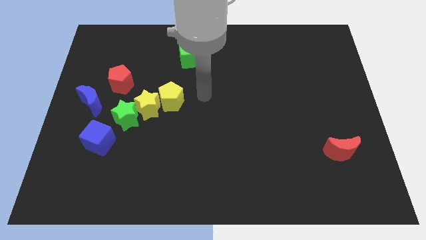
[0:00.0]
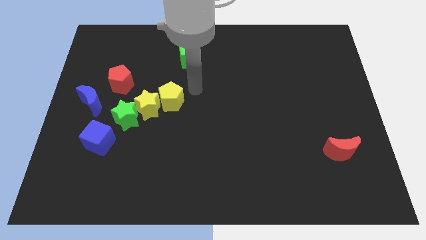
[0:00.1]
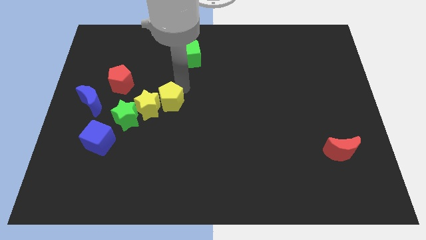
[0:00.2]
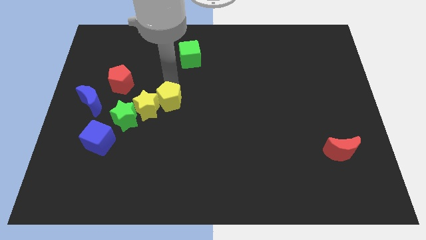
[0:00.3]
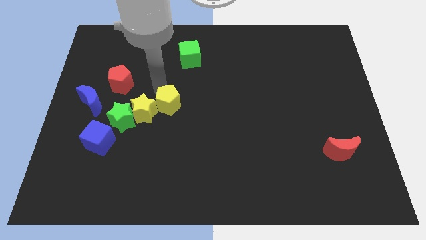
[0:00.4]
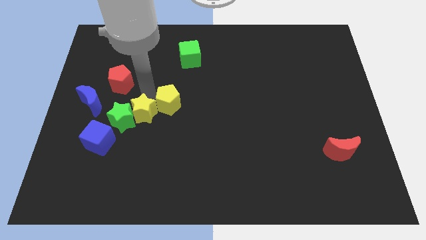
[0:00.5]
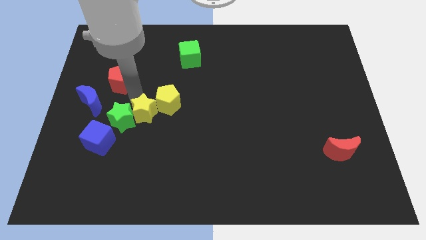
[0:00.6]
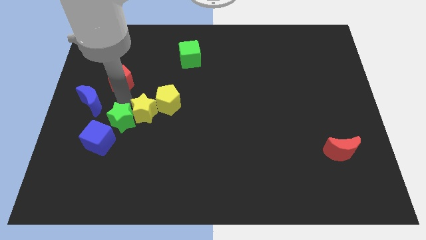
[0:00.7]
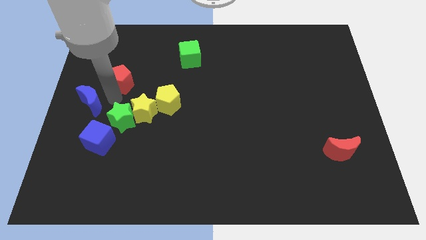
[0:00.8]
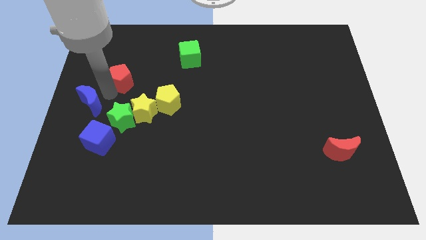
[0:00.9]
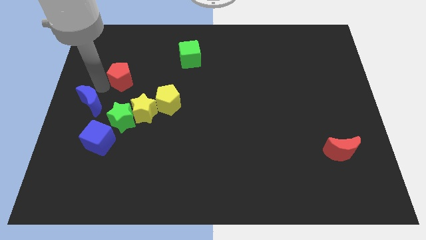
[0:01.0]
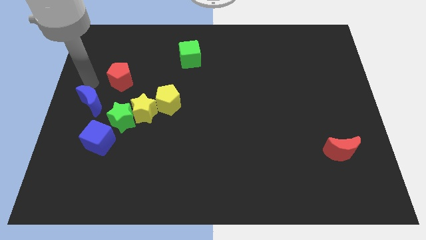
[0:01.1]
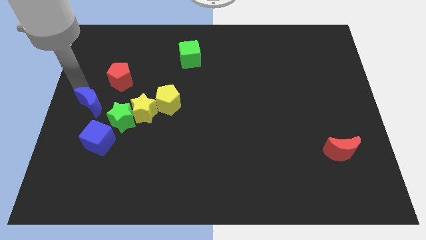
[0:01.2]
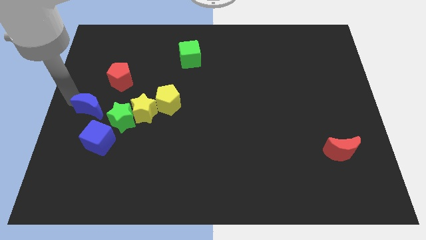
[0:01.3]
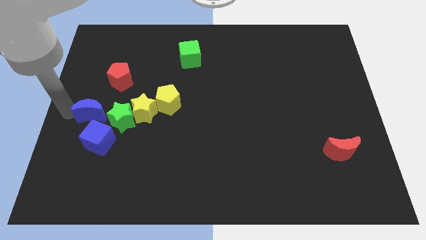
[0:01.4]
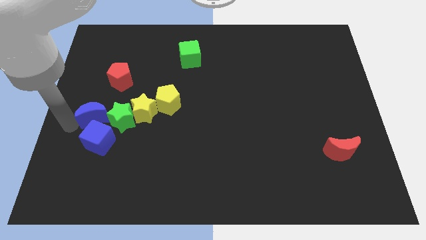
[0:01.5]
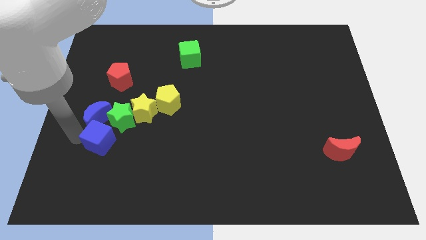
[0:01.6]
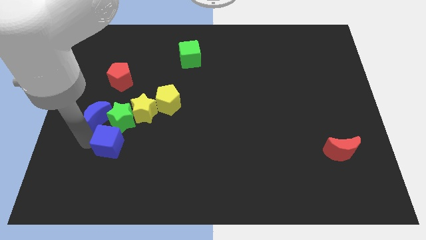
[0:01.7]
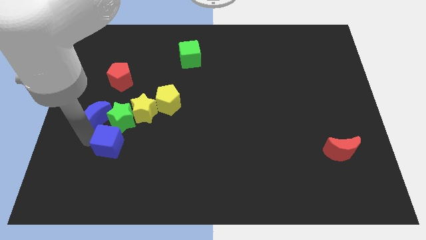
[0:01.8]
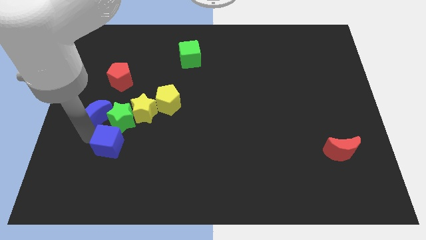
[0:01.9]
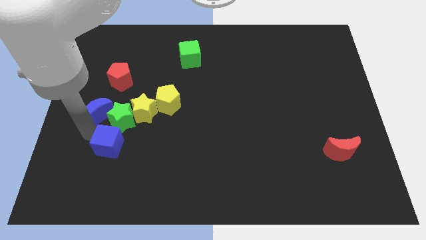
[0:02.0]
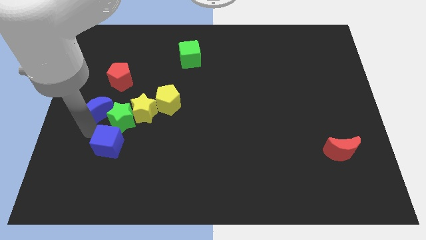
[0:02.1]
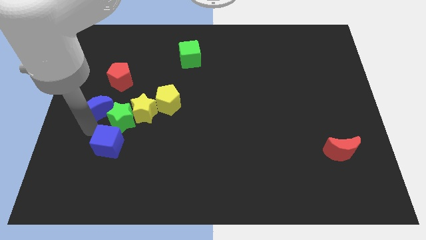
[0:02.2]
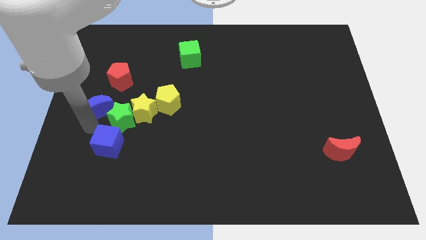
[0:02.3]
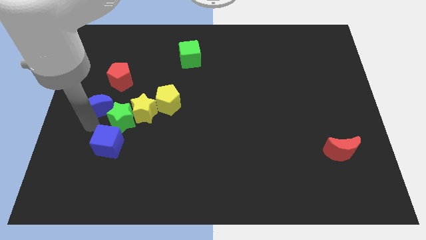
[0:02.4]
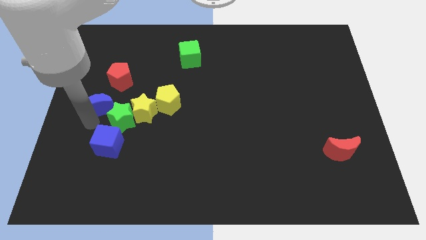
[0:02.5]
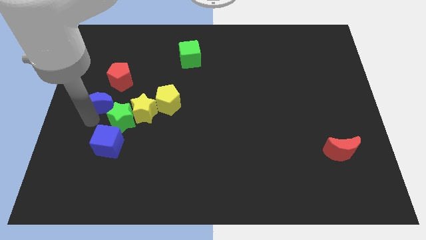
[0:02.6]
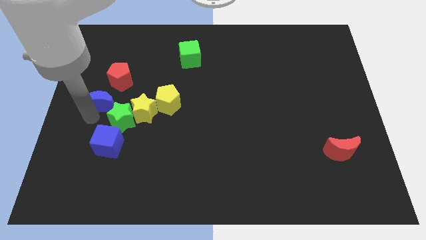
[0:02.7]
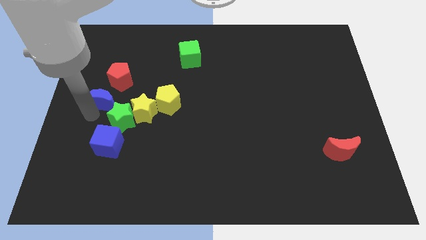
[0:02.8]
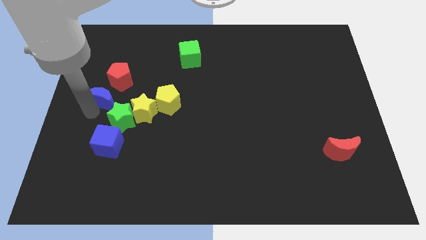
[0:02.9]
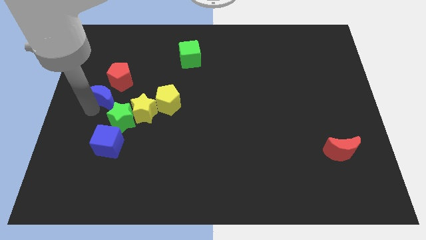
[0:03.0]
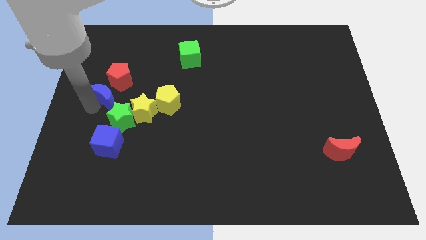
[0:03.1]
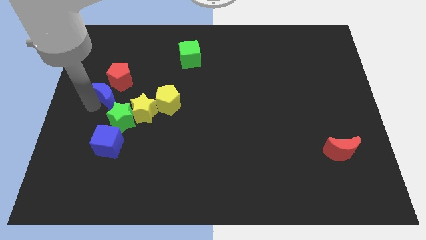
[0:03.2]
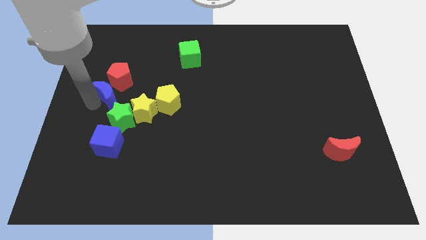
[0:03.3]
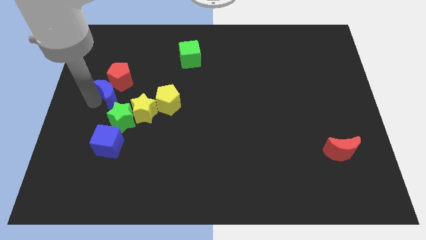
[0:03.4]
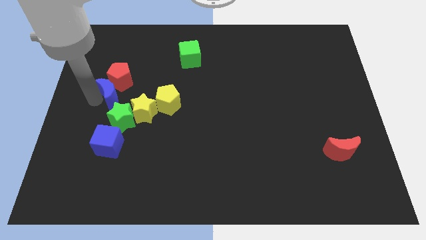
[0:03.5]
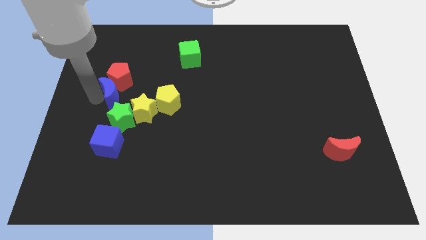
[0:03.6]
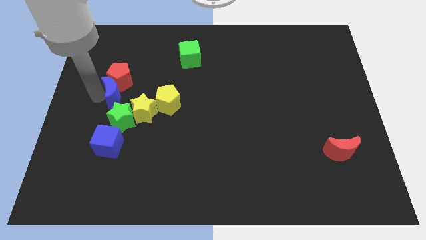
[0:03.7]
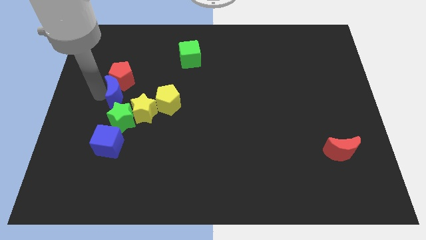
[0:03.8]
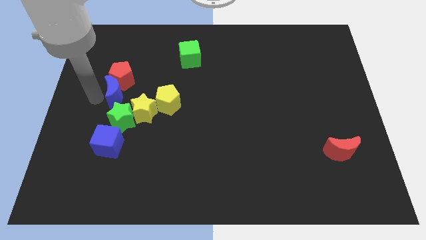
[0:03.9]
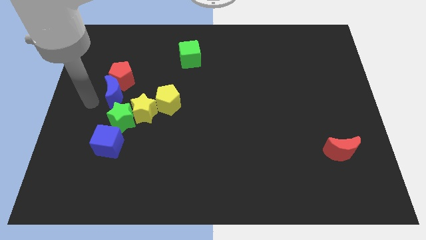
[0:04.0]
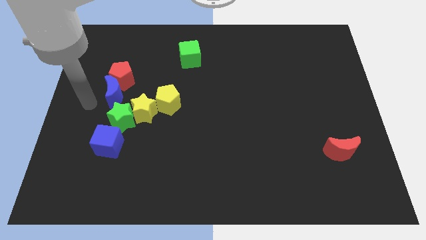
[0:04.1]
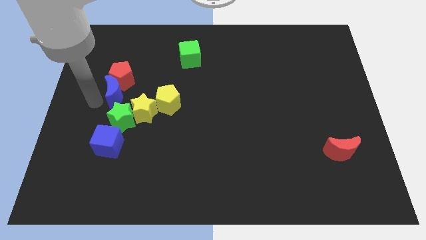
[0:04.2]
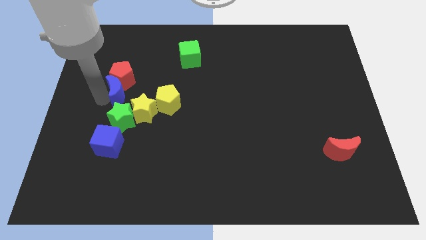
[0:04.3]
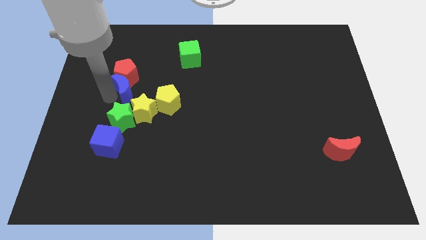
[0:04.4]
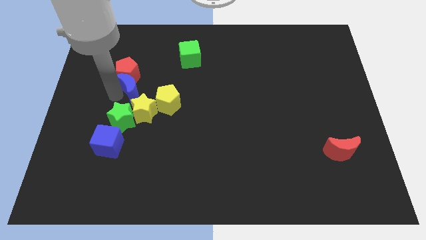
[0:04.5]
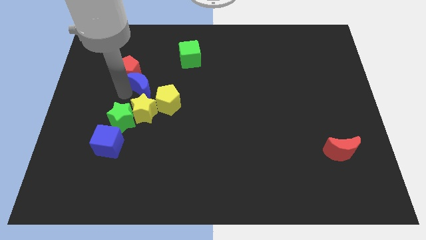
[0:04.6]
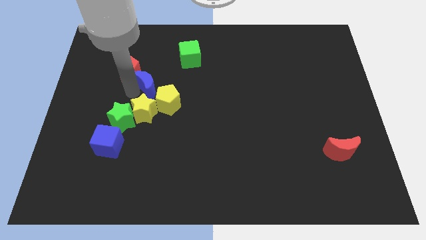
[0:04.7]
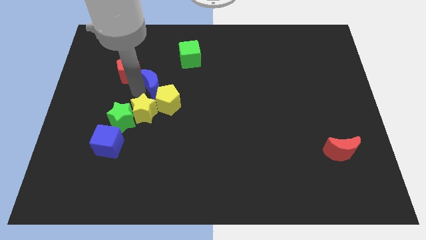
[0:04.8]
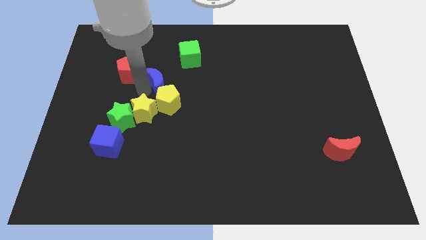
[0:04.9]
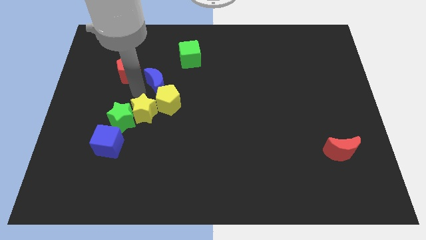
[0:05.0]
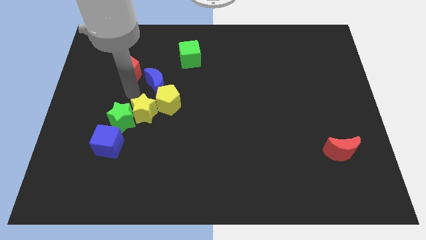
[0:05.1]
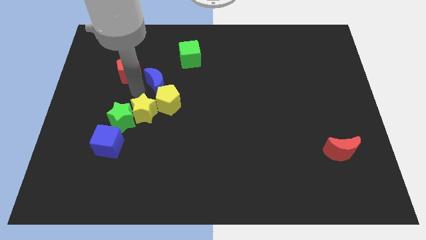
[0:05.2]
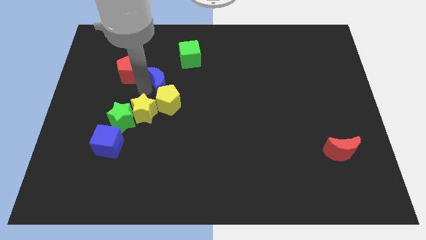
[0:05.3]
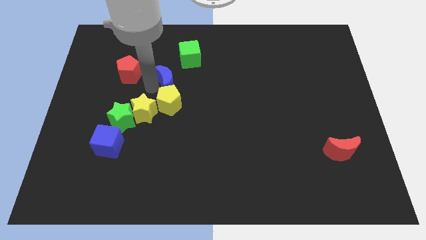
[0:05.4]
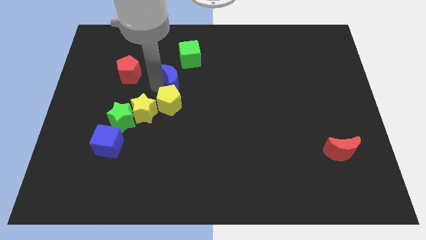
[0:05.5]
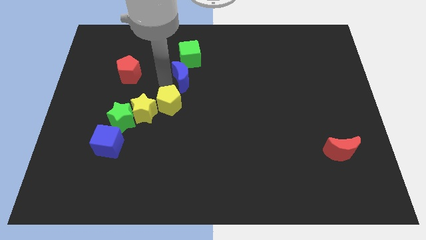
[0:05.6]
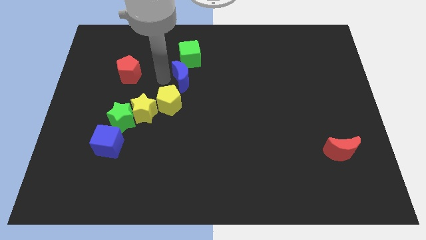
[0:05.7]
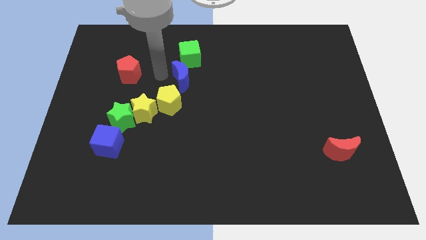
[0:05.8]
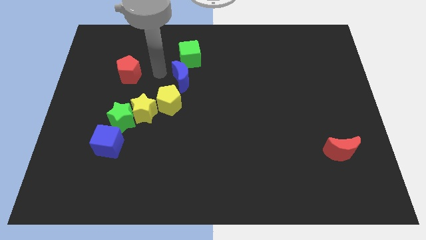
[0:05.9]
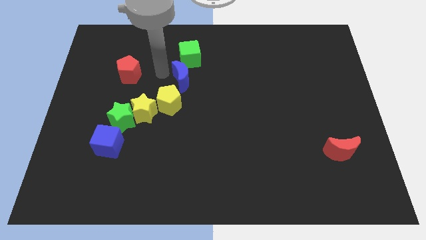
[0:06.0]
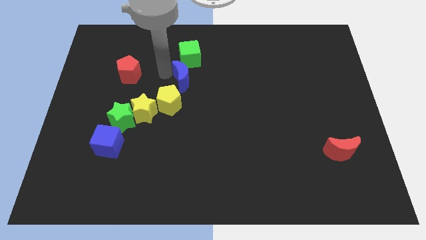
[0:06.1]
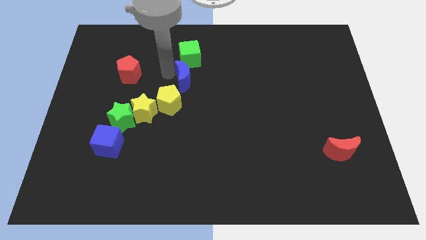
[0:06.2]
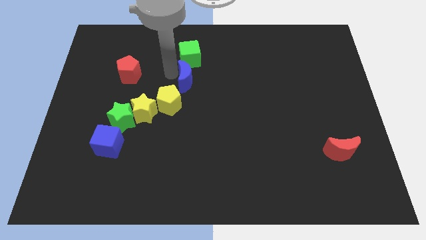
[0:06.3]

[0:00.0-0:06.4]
slide the blue moon to the right

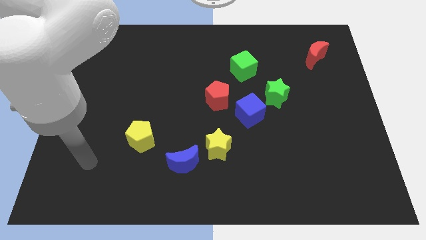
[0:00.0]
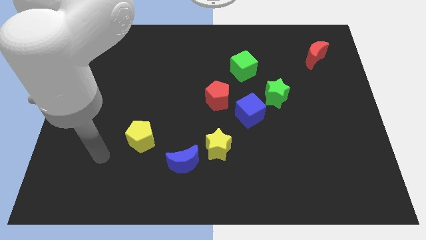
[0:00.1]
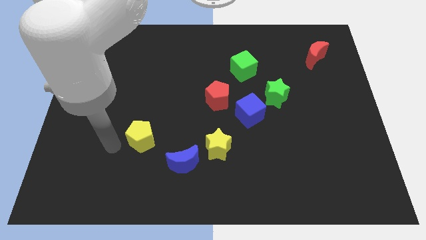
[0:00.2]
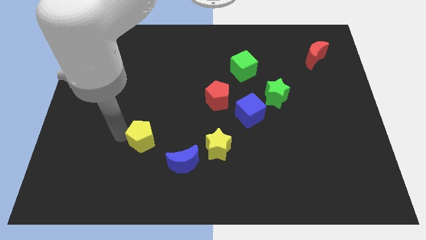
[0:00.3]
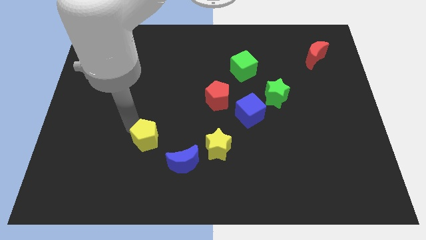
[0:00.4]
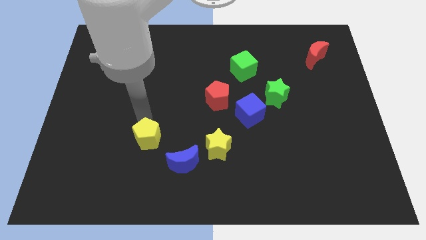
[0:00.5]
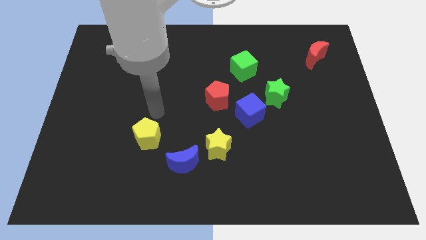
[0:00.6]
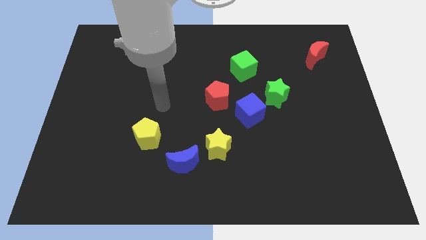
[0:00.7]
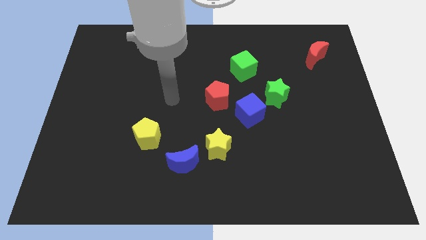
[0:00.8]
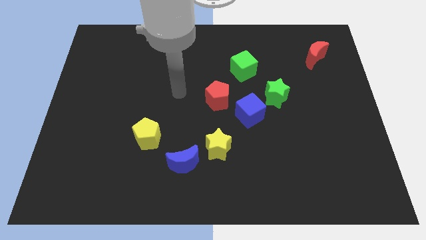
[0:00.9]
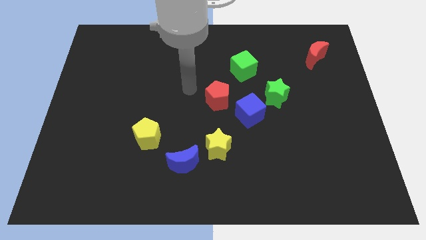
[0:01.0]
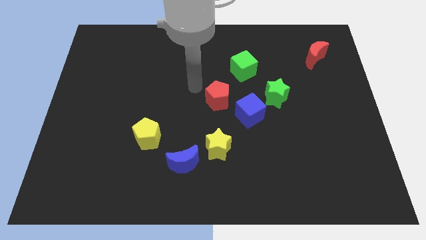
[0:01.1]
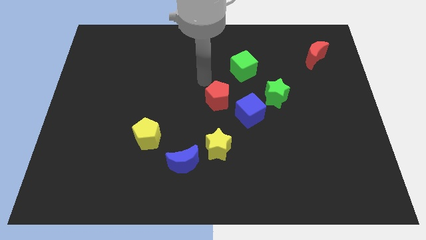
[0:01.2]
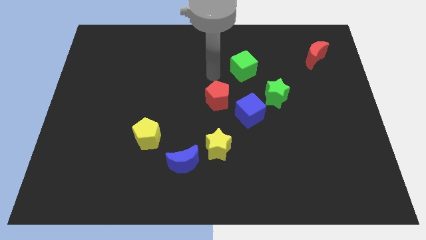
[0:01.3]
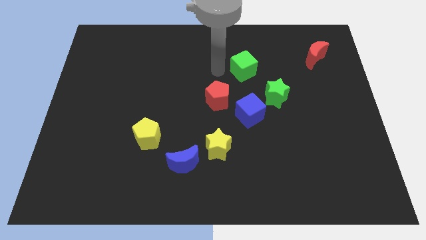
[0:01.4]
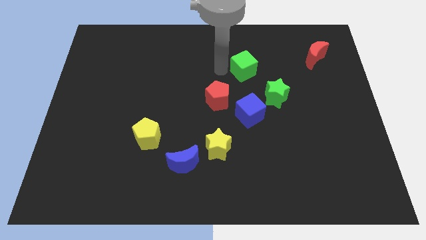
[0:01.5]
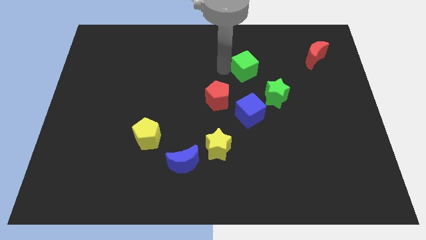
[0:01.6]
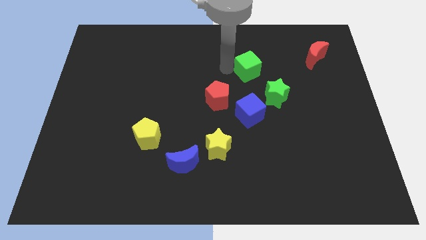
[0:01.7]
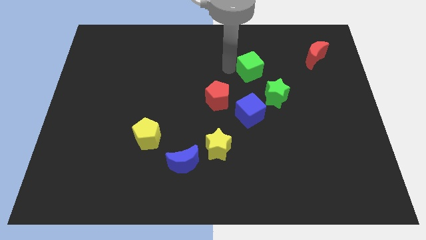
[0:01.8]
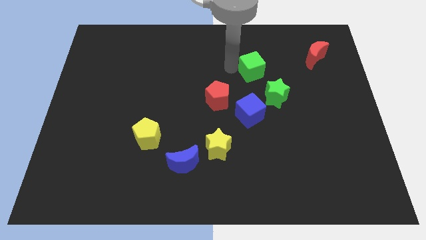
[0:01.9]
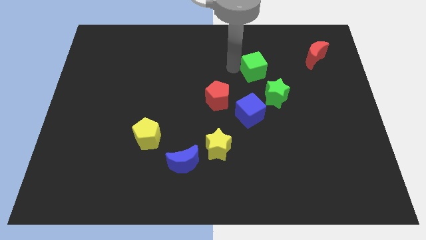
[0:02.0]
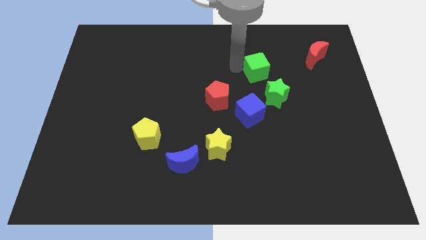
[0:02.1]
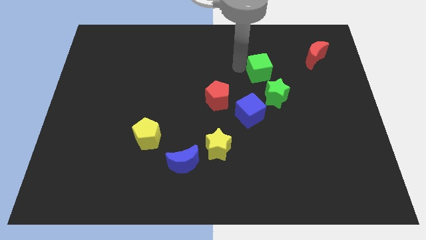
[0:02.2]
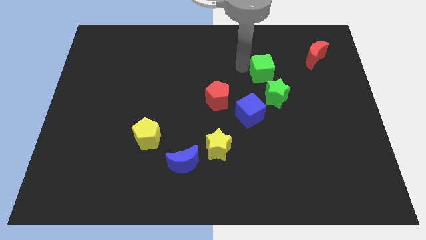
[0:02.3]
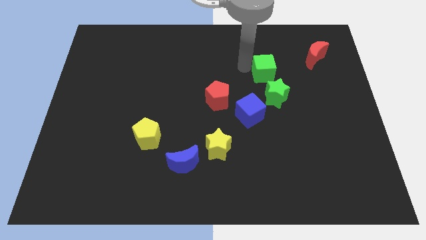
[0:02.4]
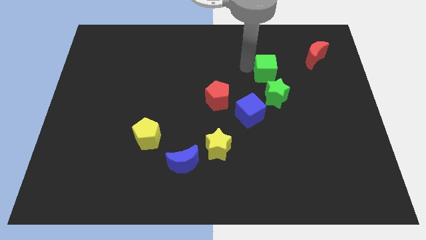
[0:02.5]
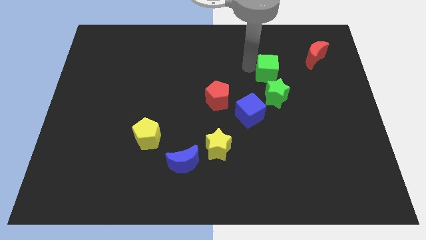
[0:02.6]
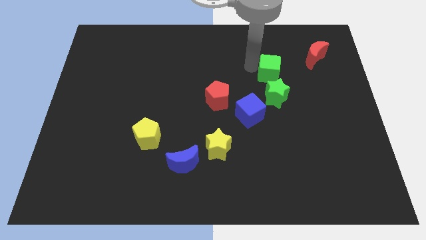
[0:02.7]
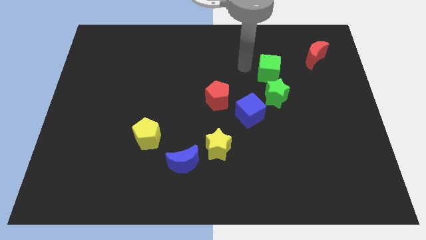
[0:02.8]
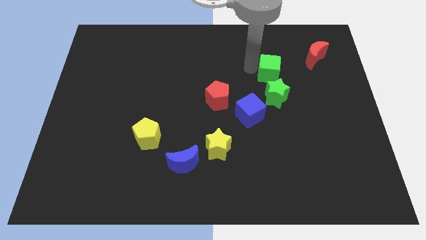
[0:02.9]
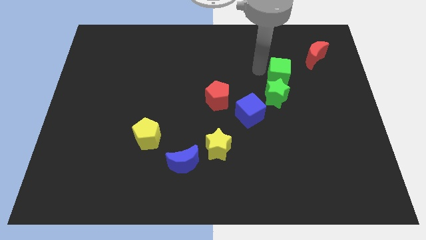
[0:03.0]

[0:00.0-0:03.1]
slightly slide the green cube right
